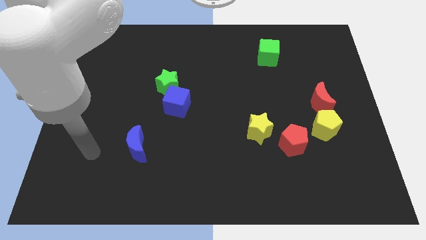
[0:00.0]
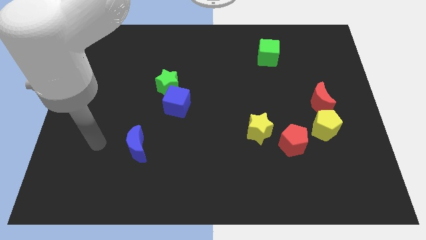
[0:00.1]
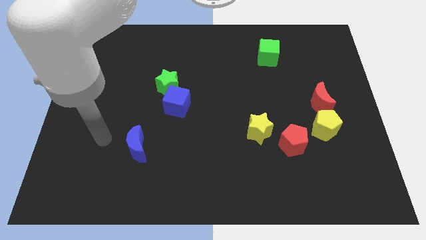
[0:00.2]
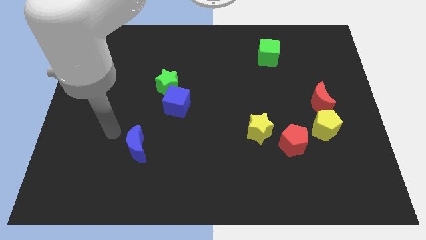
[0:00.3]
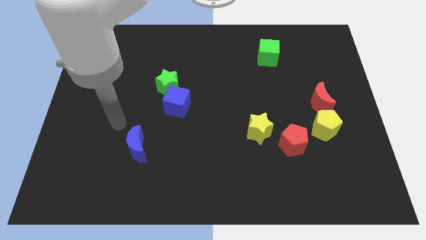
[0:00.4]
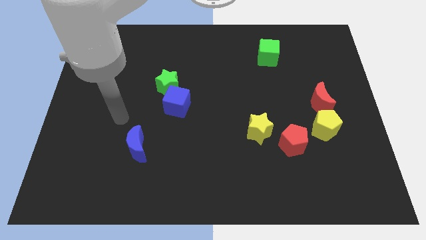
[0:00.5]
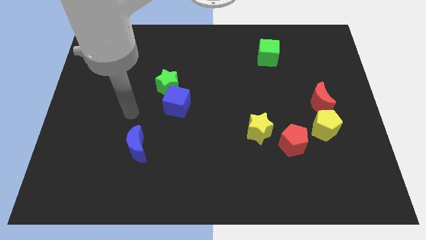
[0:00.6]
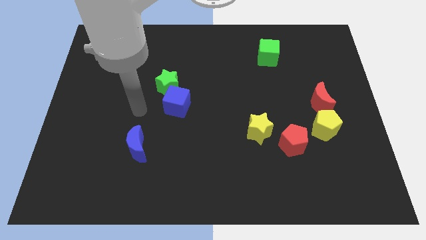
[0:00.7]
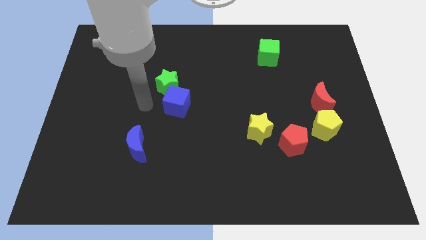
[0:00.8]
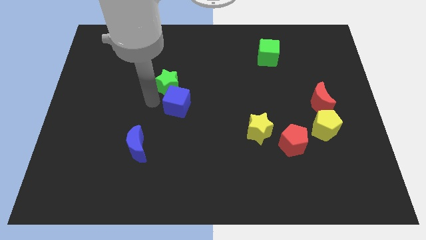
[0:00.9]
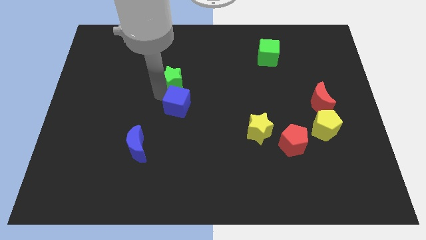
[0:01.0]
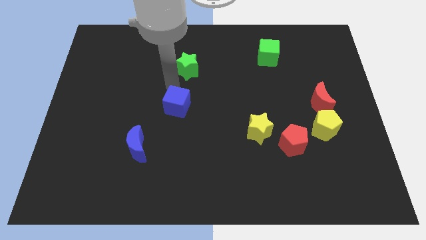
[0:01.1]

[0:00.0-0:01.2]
pull the blue cube apart from the green star

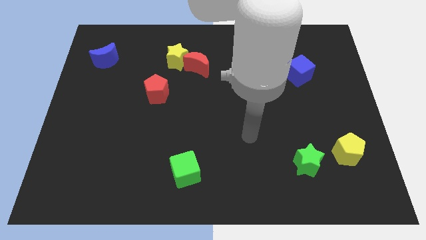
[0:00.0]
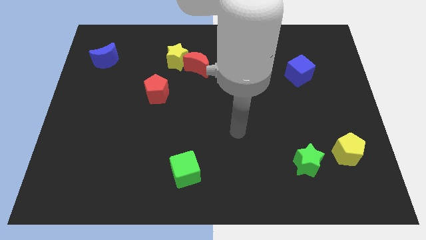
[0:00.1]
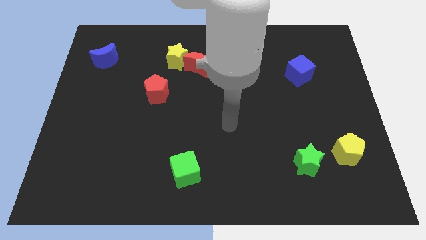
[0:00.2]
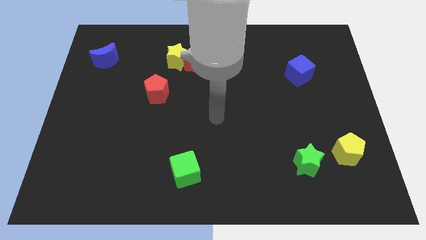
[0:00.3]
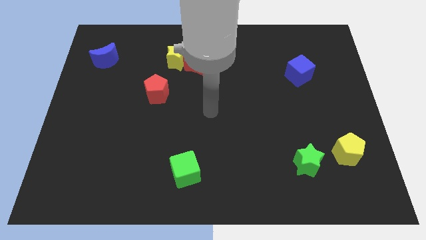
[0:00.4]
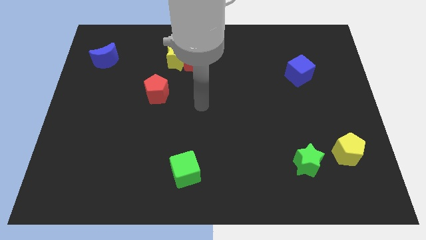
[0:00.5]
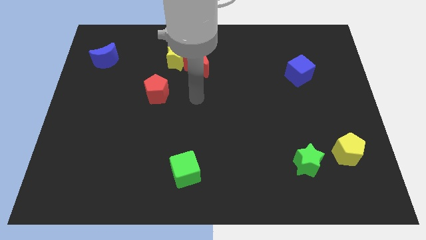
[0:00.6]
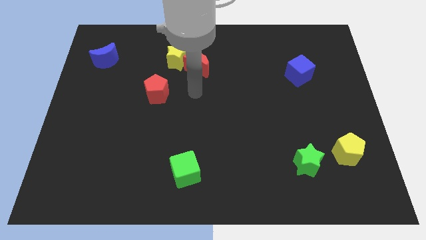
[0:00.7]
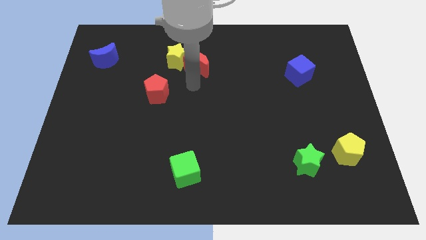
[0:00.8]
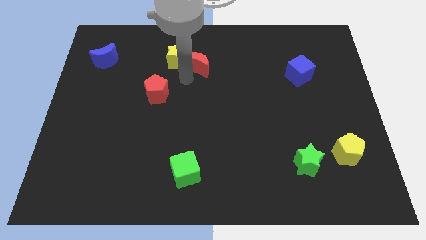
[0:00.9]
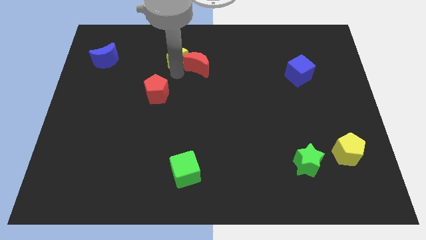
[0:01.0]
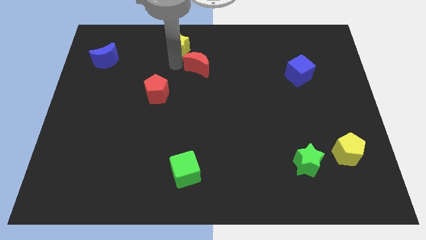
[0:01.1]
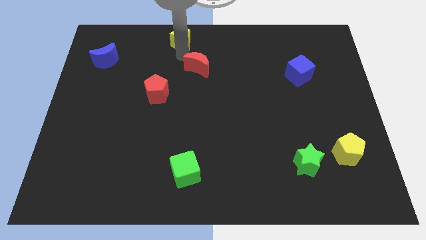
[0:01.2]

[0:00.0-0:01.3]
move the red moon away from the yellow star

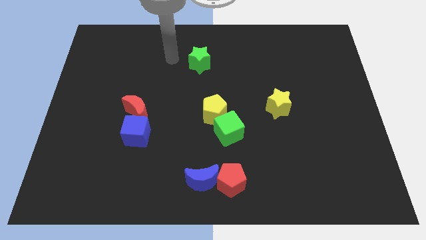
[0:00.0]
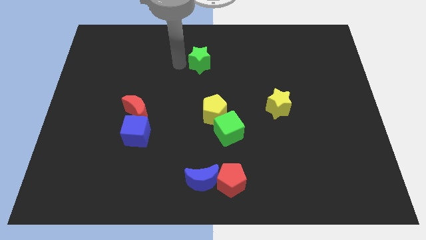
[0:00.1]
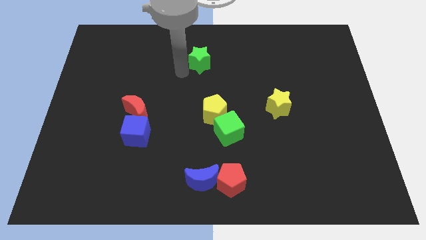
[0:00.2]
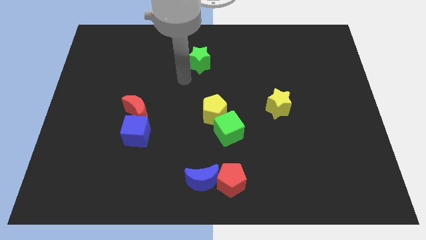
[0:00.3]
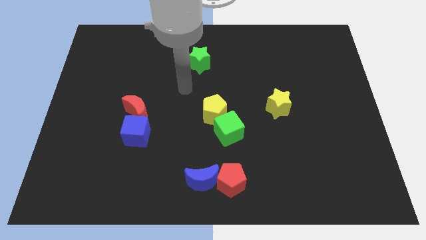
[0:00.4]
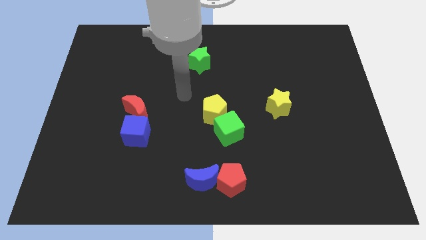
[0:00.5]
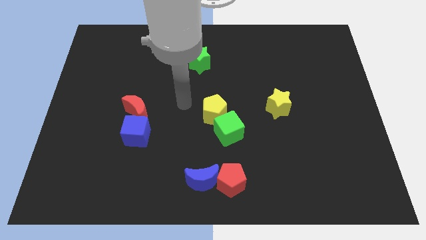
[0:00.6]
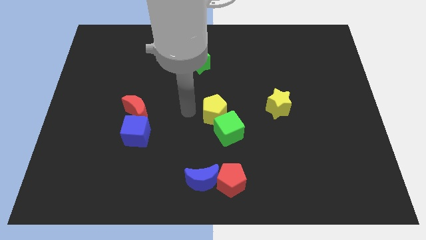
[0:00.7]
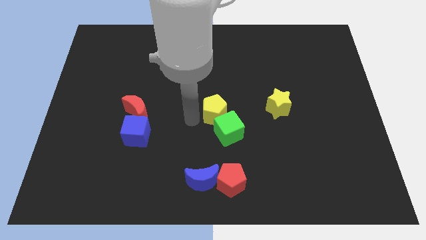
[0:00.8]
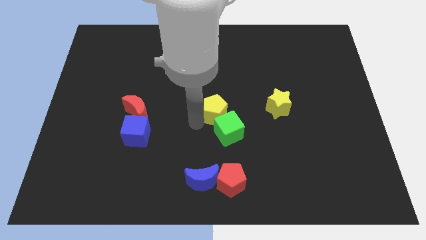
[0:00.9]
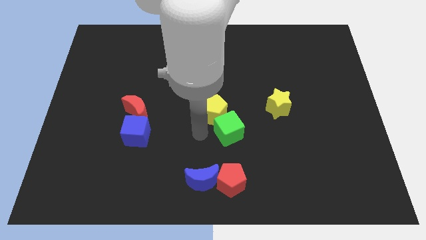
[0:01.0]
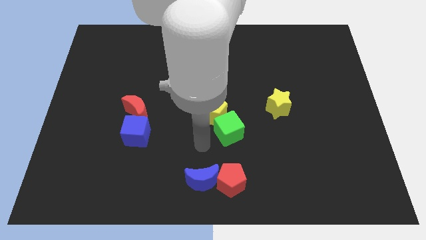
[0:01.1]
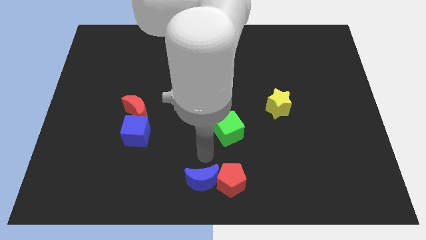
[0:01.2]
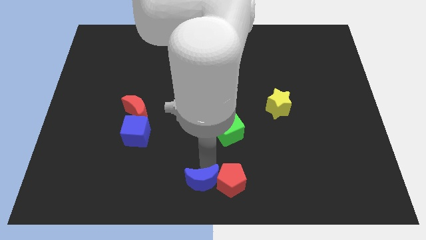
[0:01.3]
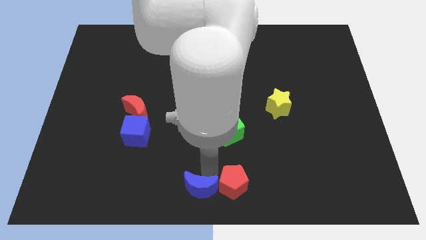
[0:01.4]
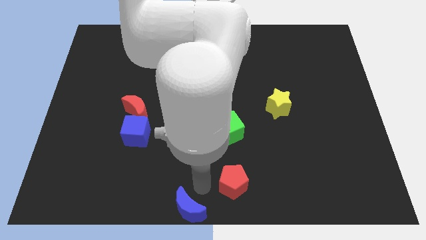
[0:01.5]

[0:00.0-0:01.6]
pull the red pentagon apart from the blue moon

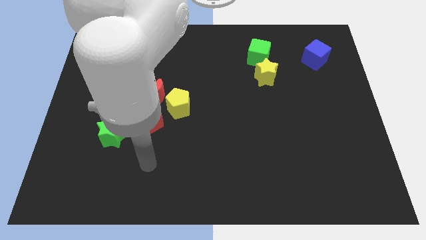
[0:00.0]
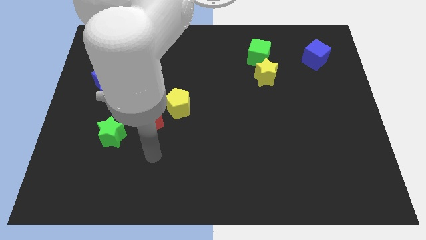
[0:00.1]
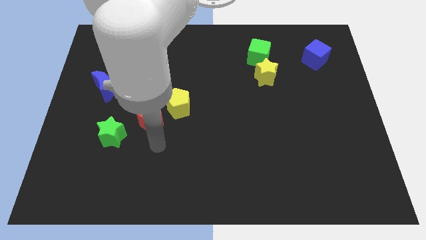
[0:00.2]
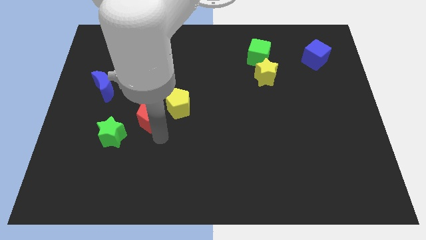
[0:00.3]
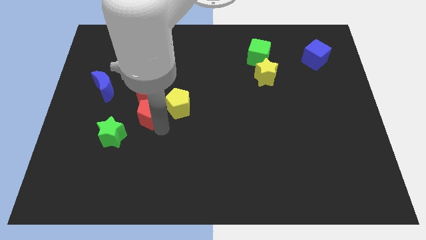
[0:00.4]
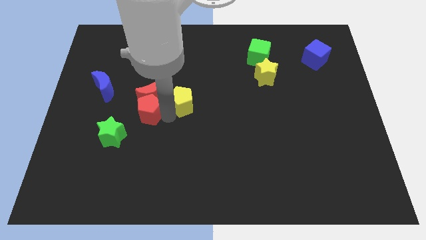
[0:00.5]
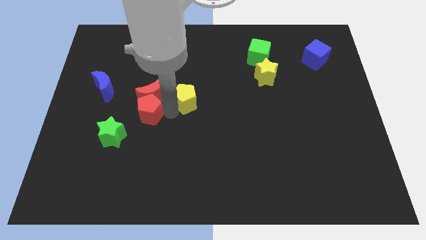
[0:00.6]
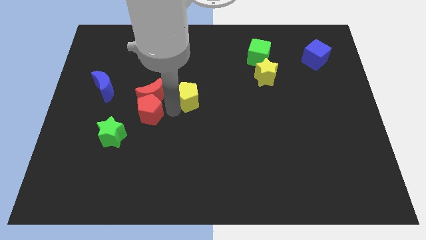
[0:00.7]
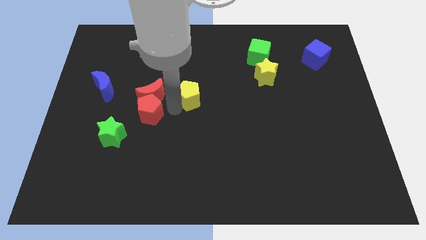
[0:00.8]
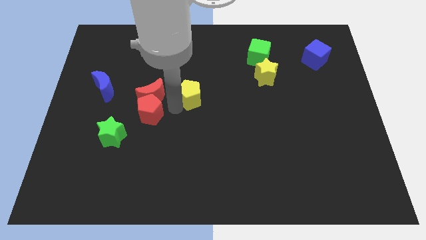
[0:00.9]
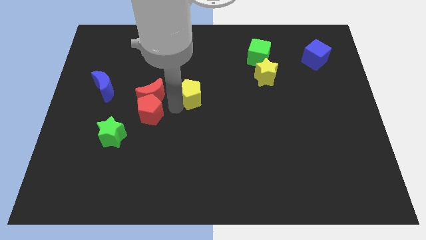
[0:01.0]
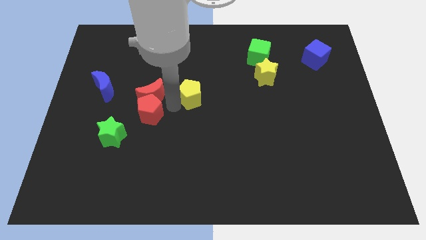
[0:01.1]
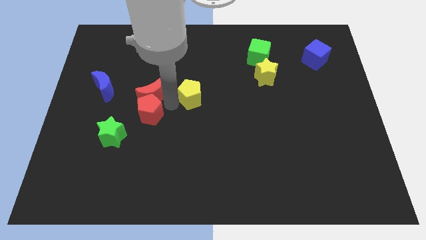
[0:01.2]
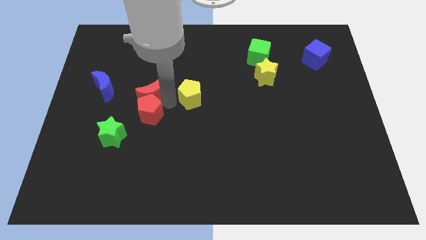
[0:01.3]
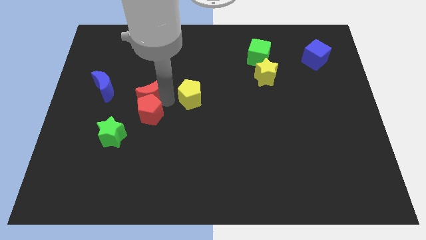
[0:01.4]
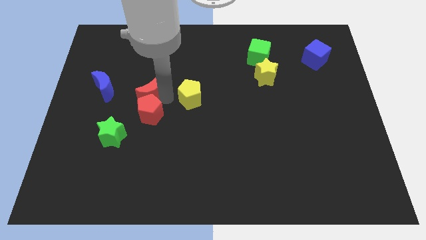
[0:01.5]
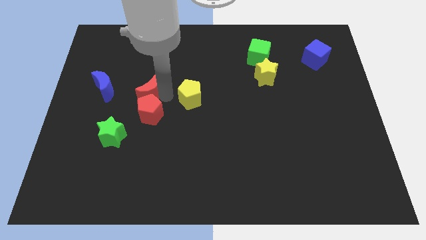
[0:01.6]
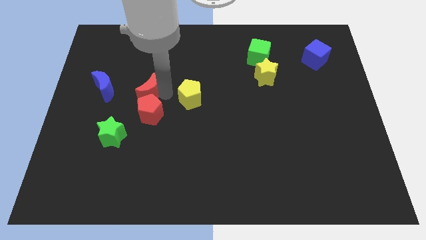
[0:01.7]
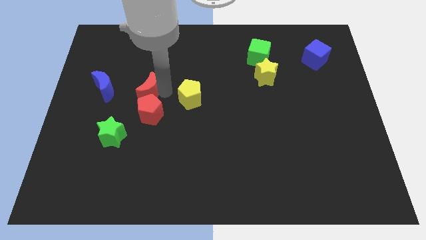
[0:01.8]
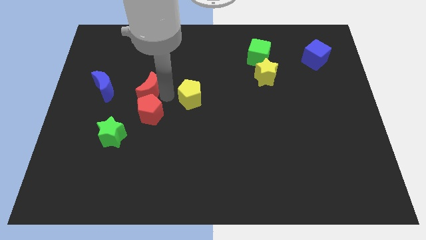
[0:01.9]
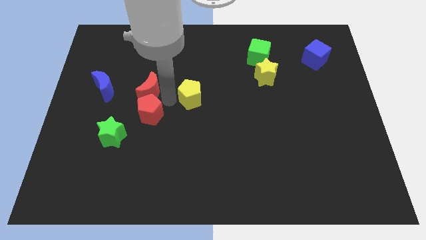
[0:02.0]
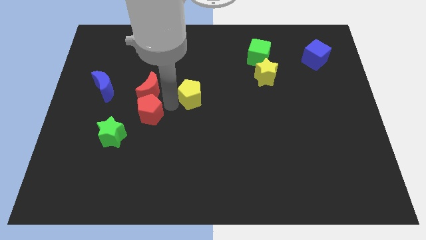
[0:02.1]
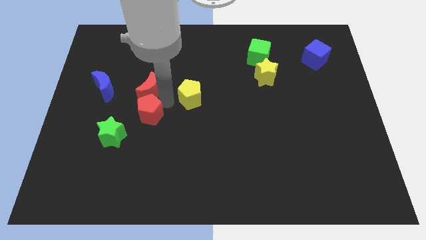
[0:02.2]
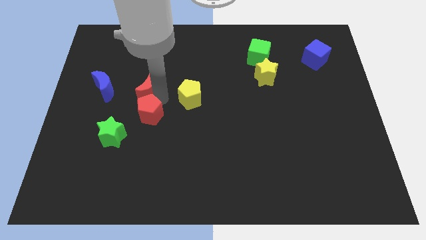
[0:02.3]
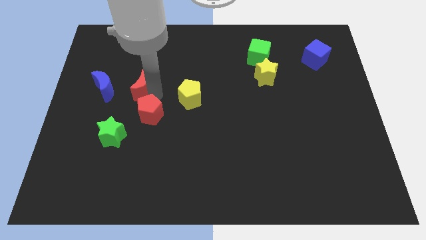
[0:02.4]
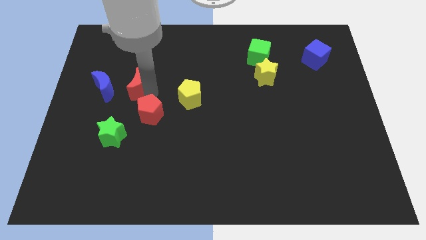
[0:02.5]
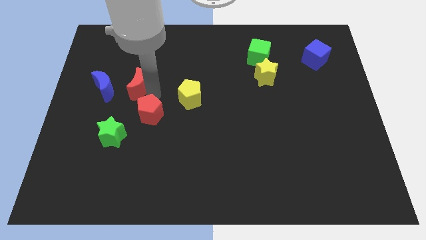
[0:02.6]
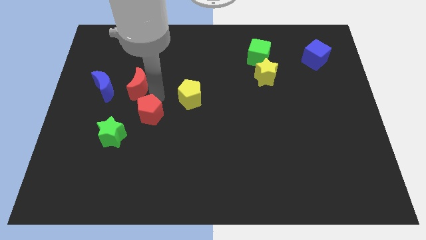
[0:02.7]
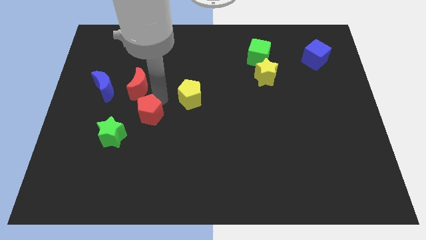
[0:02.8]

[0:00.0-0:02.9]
move the red moon away from the red pentagon and yellow pentagon

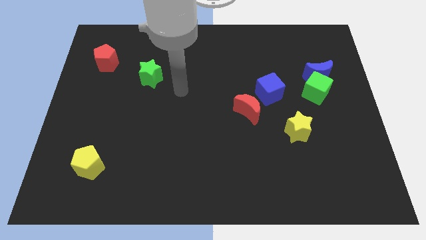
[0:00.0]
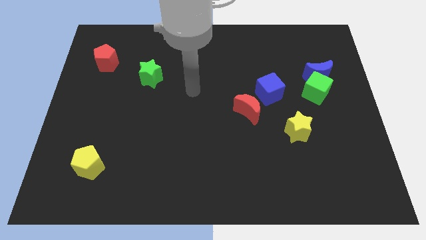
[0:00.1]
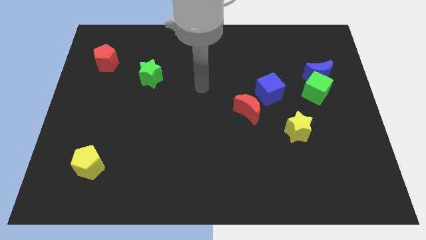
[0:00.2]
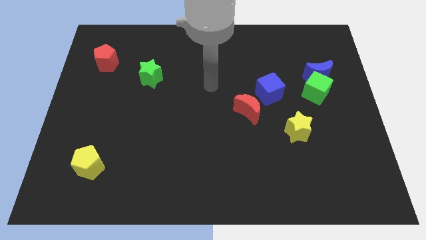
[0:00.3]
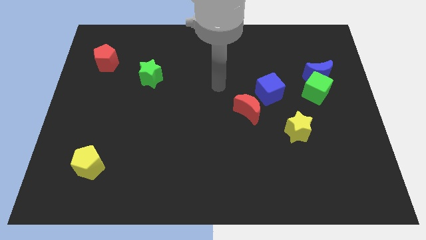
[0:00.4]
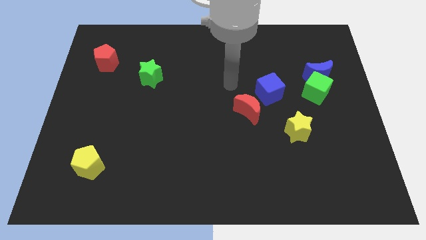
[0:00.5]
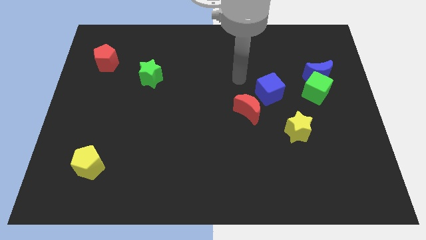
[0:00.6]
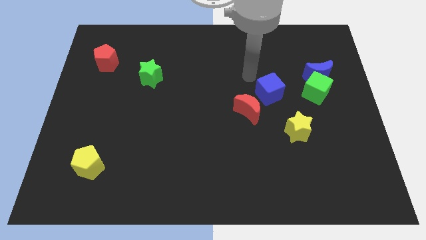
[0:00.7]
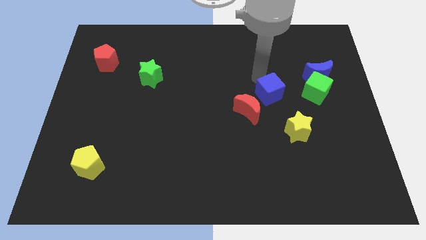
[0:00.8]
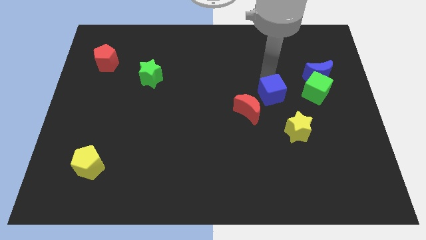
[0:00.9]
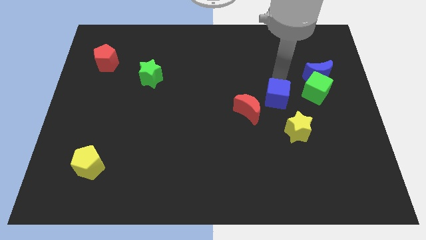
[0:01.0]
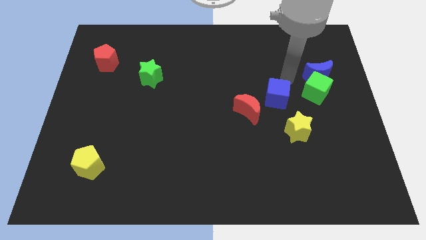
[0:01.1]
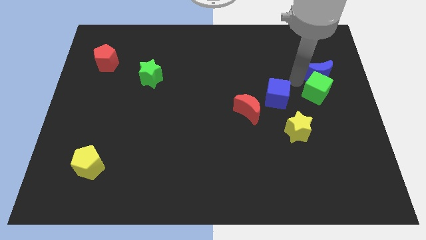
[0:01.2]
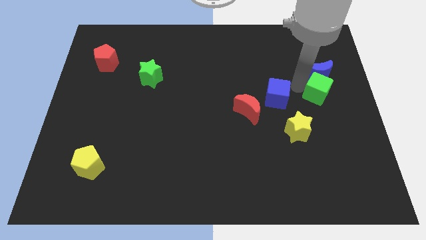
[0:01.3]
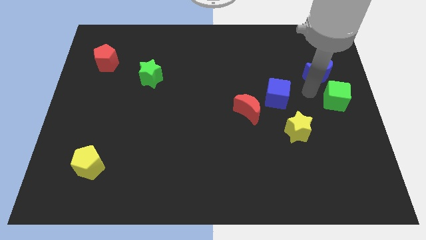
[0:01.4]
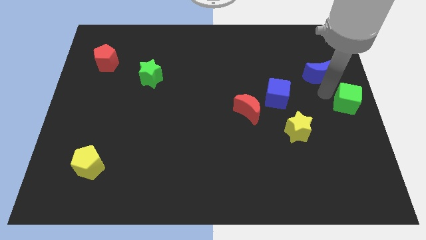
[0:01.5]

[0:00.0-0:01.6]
separate the blue moon from the green cube

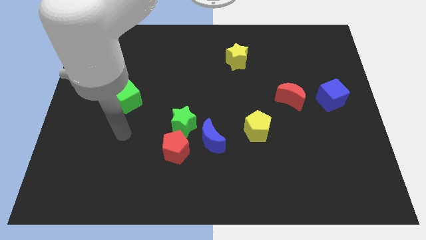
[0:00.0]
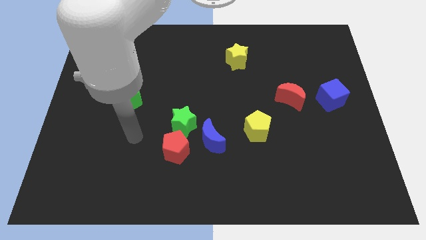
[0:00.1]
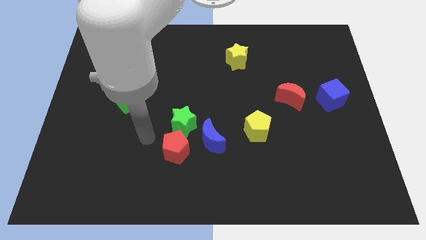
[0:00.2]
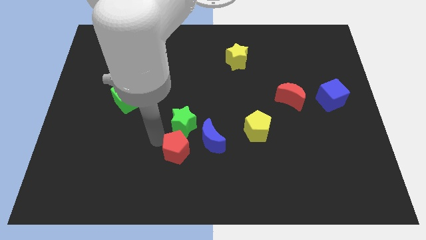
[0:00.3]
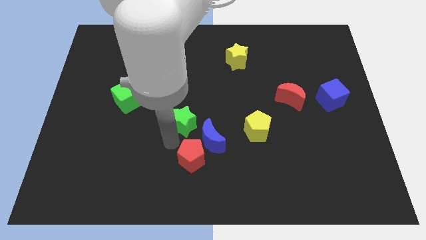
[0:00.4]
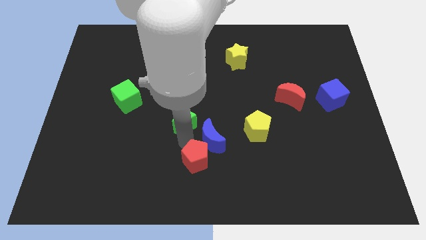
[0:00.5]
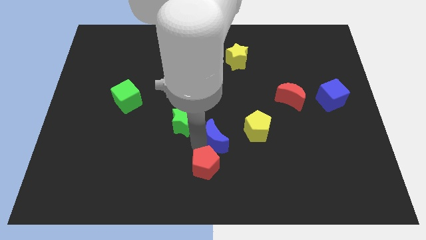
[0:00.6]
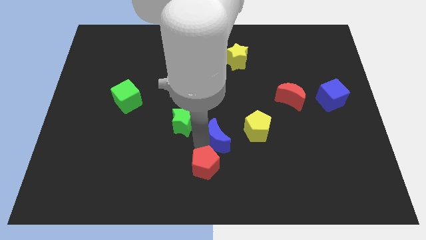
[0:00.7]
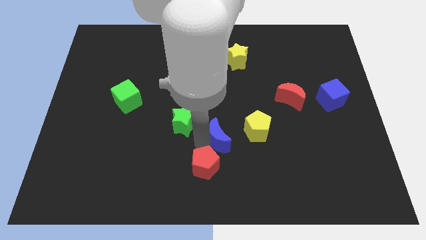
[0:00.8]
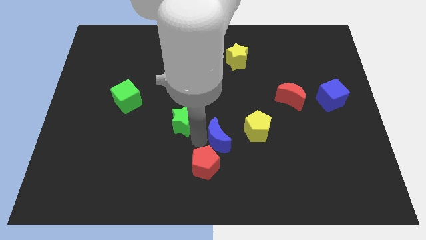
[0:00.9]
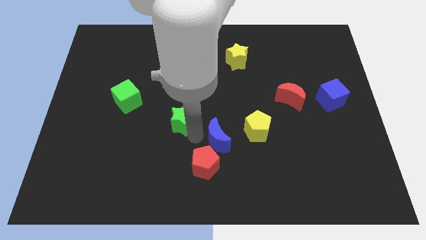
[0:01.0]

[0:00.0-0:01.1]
move the green star away from the red pentagon and blue moon
